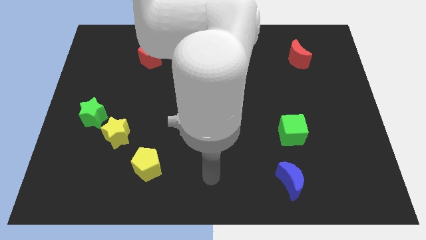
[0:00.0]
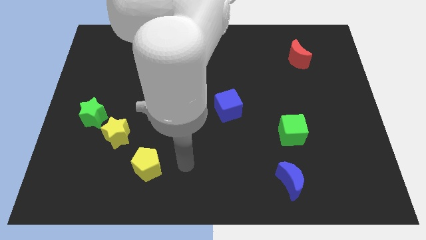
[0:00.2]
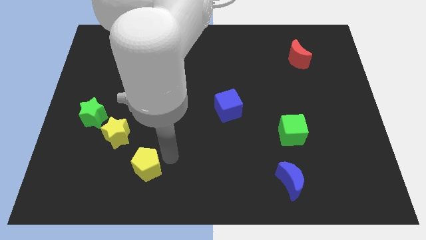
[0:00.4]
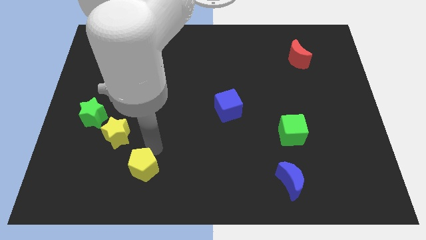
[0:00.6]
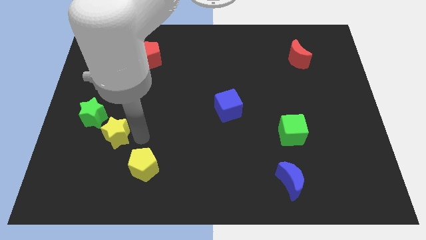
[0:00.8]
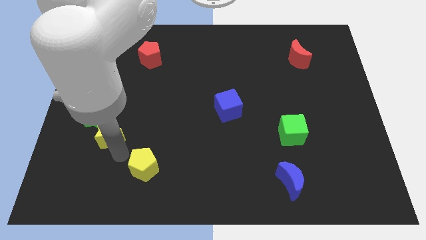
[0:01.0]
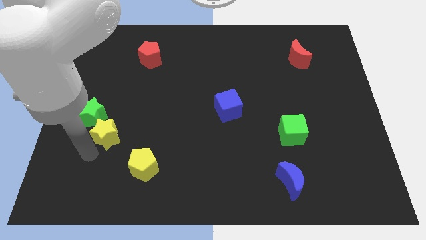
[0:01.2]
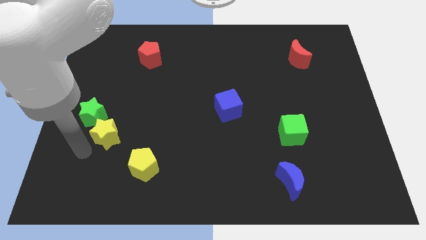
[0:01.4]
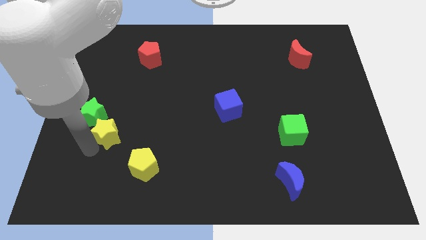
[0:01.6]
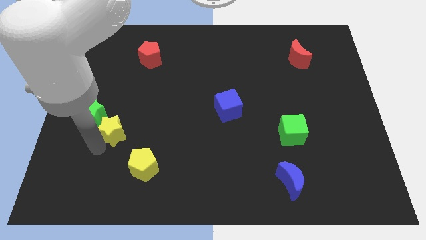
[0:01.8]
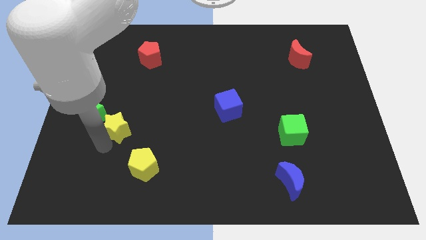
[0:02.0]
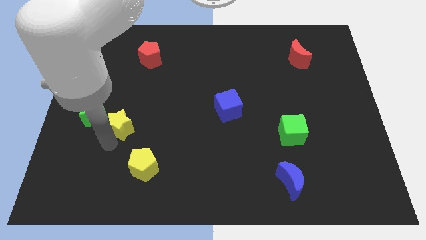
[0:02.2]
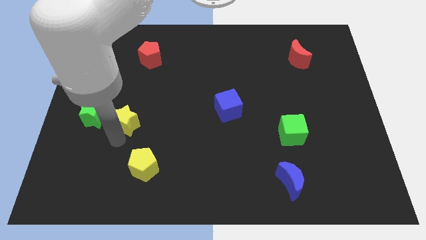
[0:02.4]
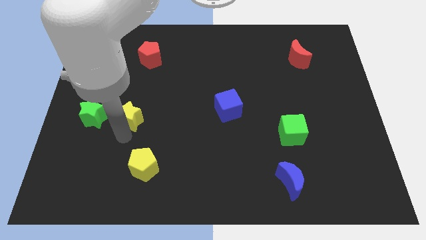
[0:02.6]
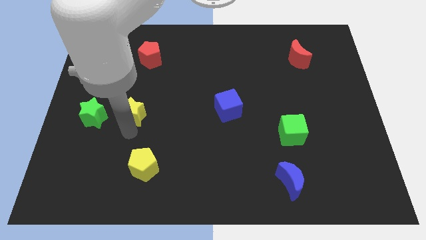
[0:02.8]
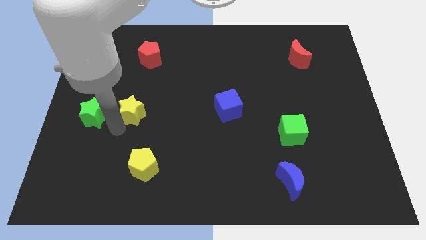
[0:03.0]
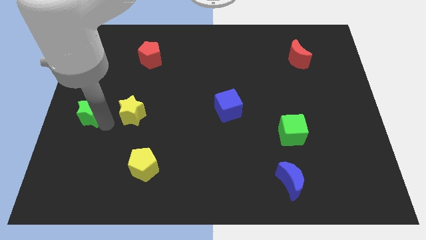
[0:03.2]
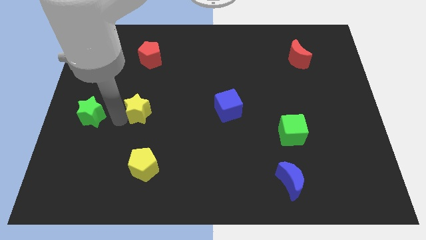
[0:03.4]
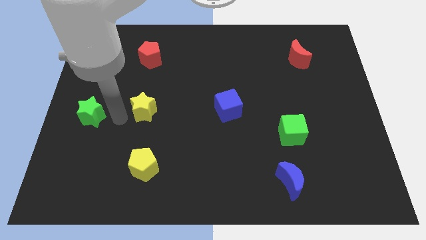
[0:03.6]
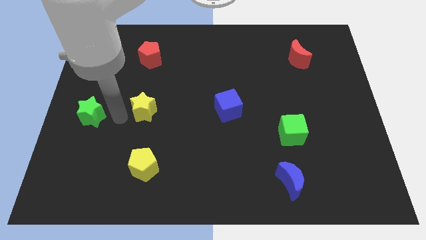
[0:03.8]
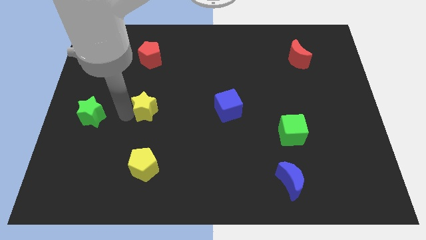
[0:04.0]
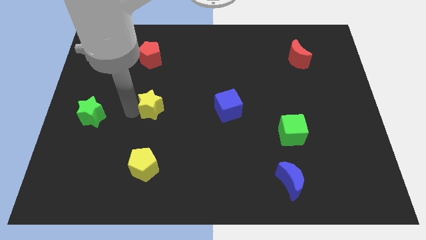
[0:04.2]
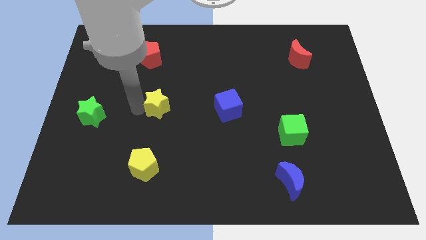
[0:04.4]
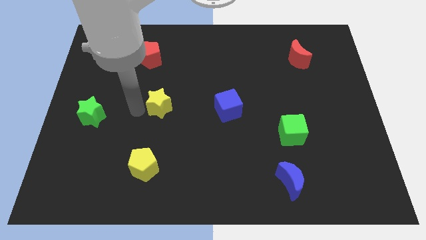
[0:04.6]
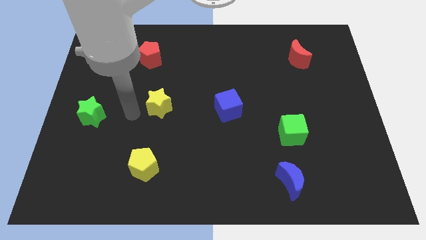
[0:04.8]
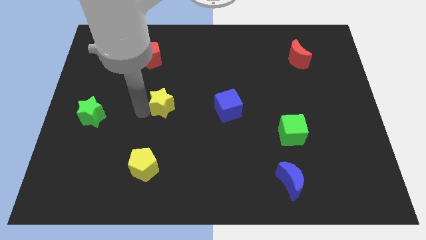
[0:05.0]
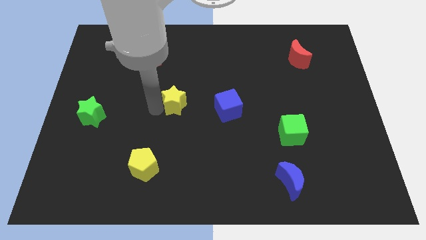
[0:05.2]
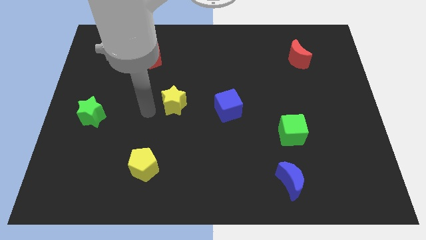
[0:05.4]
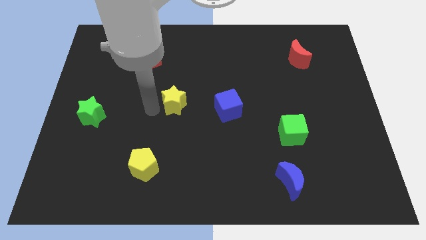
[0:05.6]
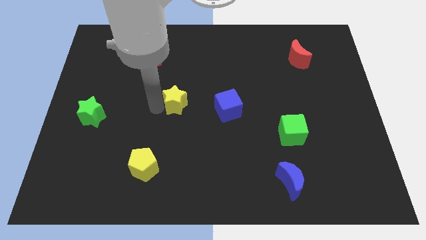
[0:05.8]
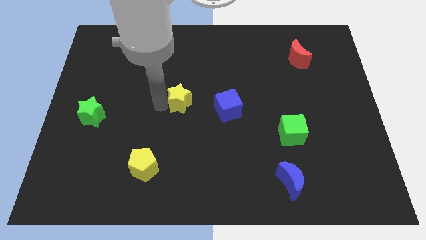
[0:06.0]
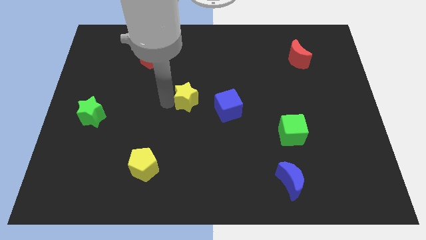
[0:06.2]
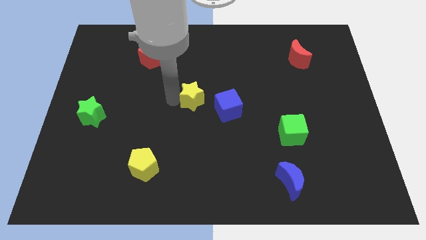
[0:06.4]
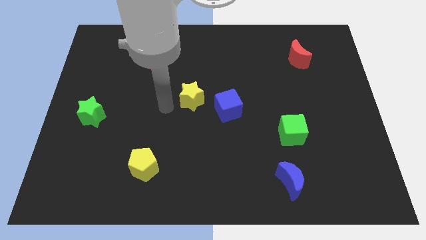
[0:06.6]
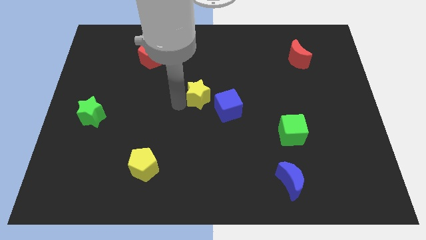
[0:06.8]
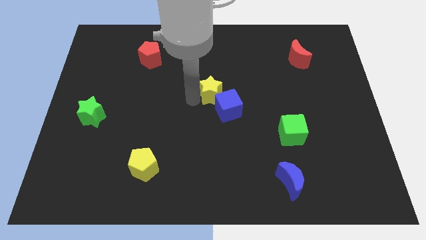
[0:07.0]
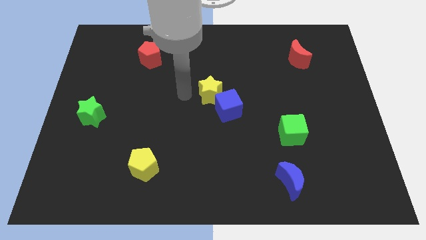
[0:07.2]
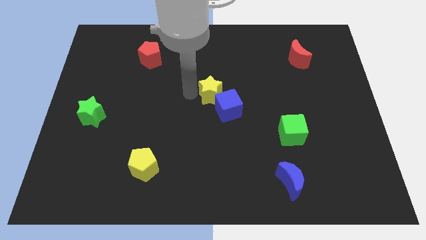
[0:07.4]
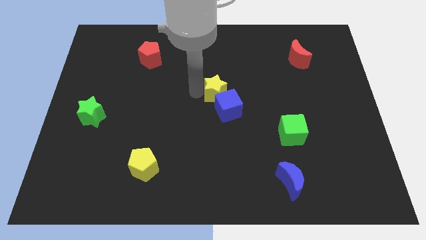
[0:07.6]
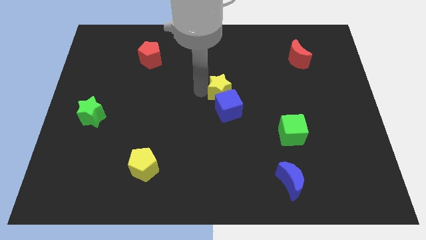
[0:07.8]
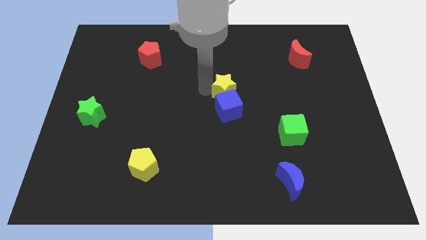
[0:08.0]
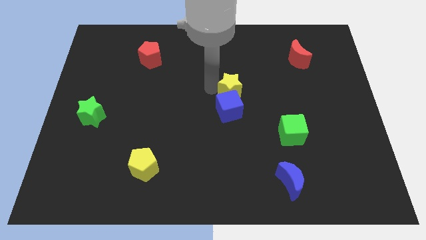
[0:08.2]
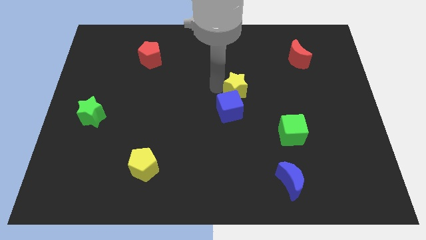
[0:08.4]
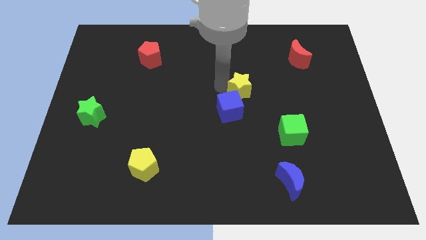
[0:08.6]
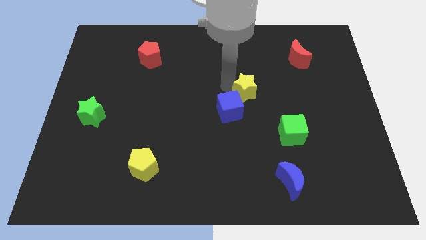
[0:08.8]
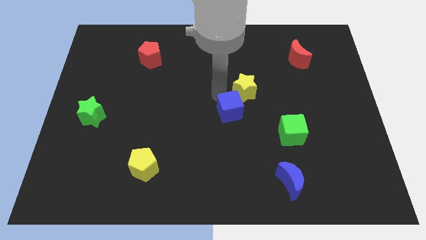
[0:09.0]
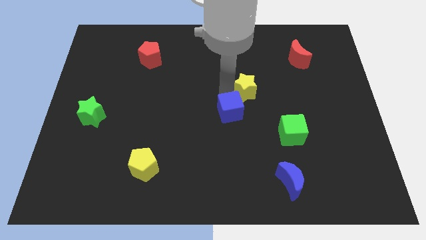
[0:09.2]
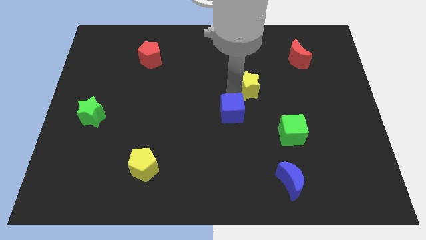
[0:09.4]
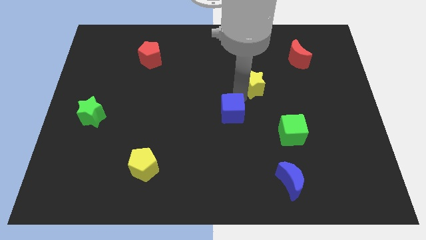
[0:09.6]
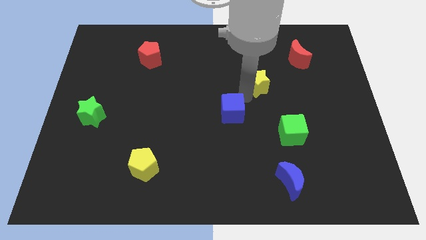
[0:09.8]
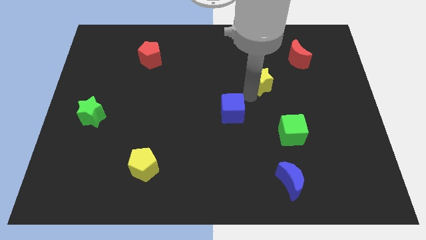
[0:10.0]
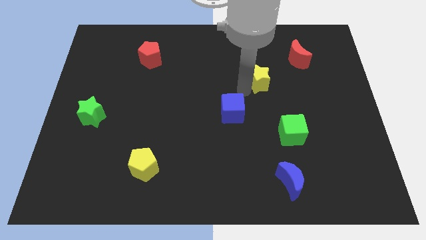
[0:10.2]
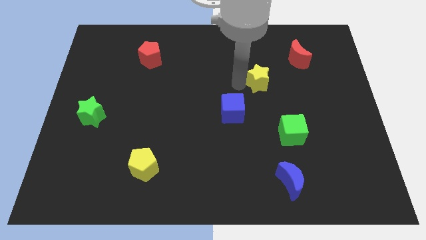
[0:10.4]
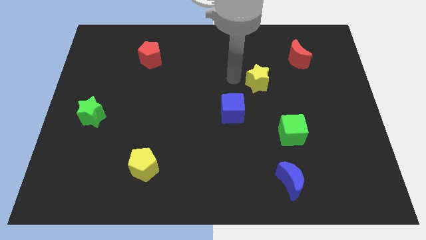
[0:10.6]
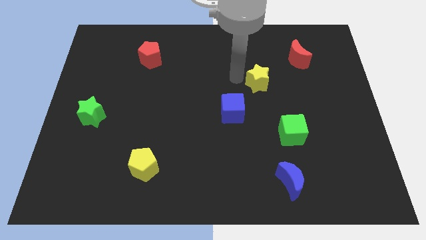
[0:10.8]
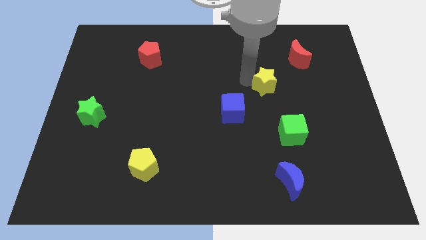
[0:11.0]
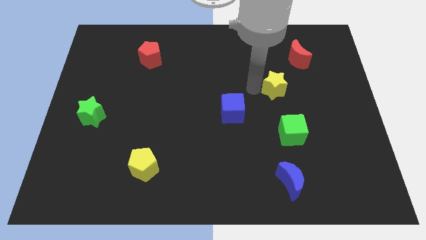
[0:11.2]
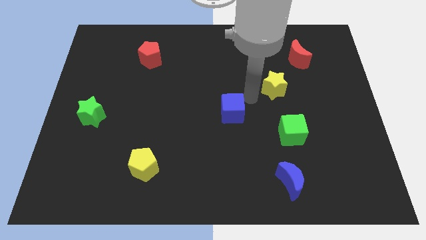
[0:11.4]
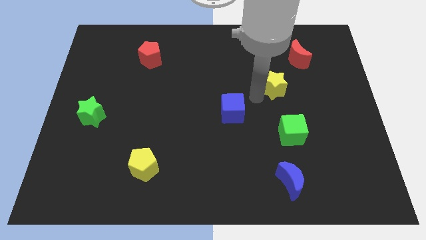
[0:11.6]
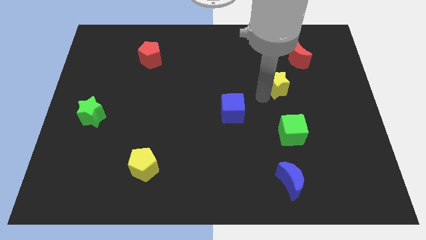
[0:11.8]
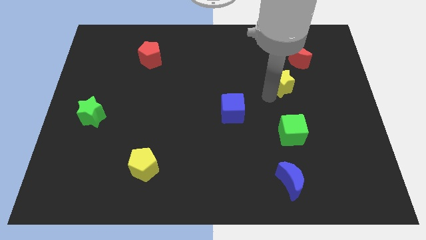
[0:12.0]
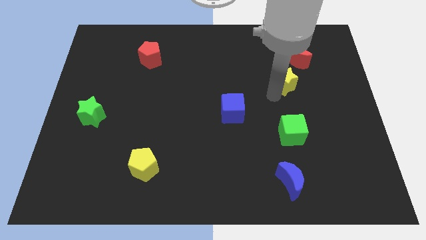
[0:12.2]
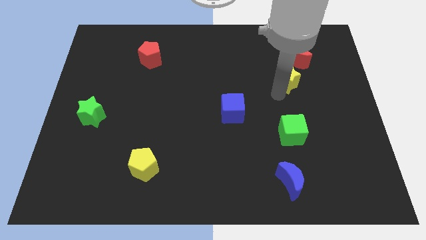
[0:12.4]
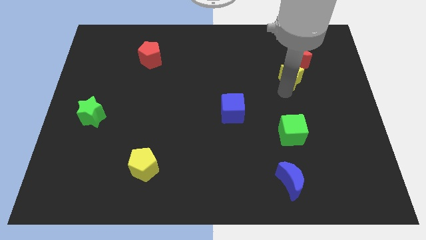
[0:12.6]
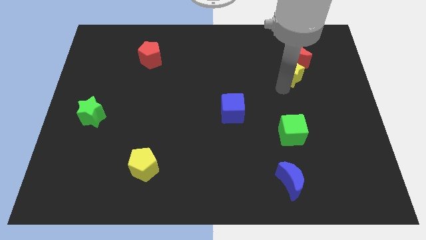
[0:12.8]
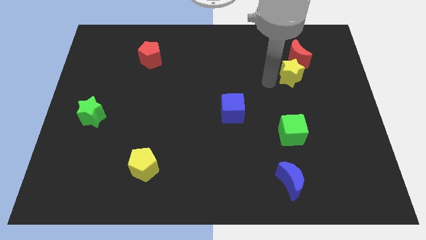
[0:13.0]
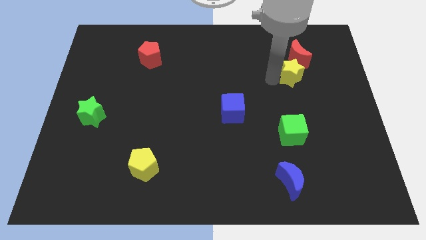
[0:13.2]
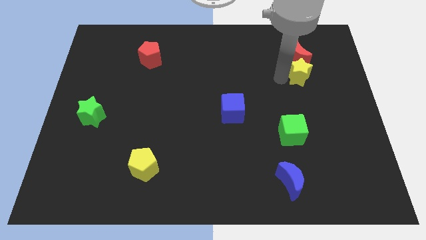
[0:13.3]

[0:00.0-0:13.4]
move the yellow star to the bottom right side of the red moon
